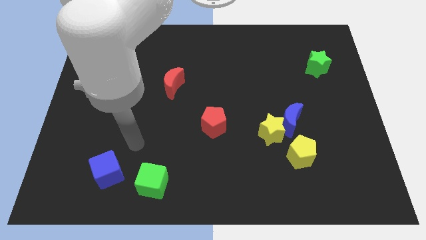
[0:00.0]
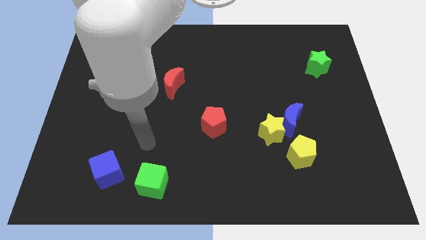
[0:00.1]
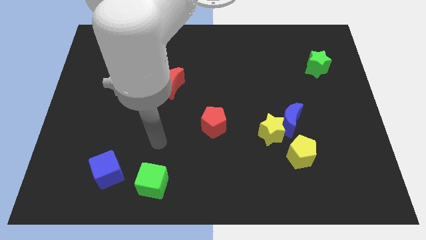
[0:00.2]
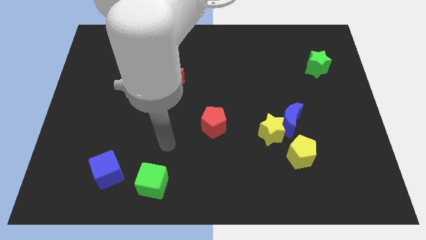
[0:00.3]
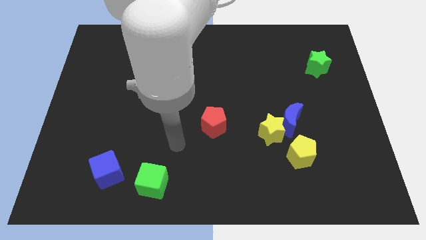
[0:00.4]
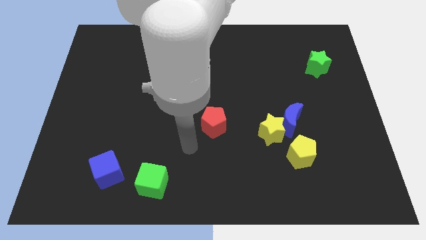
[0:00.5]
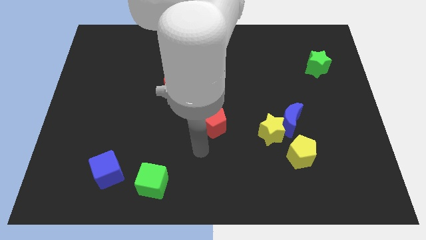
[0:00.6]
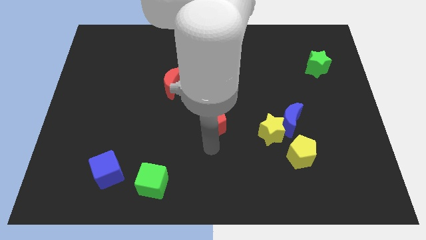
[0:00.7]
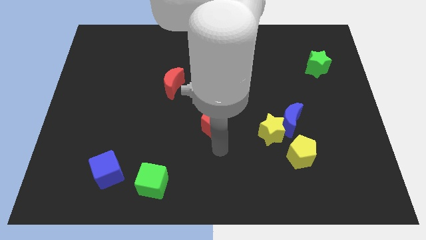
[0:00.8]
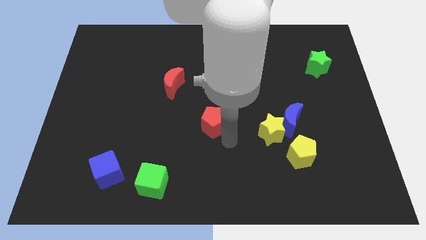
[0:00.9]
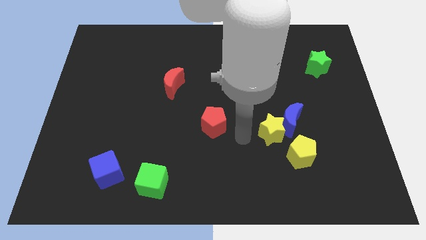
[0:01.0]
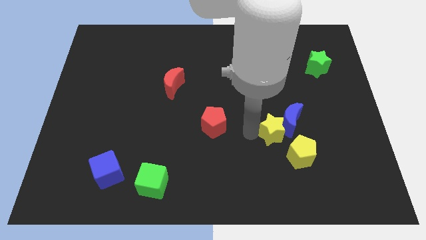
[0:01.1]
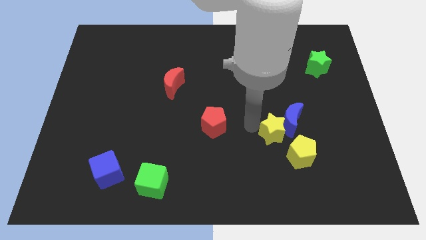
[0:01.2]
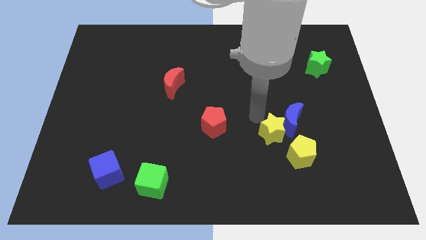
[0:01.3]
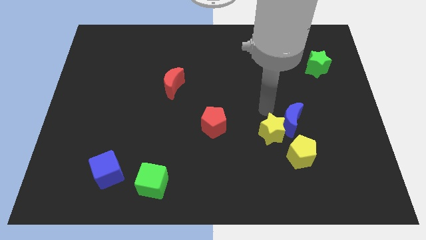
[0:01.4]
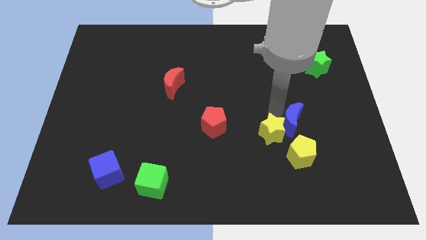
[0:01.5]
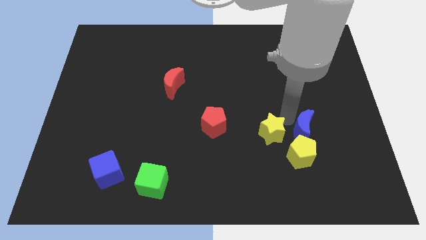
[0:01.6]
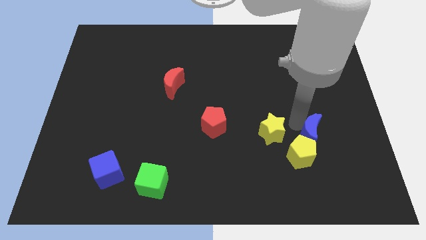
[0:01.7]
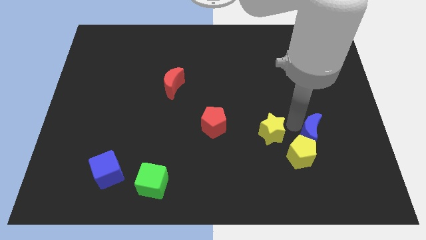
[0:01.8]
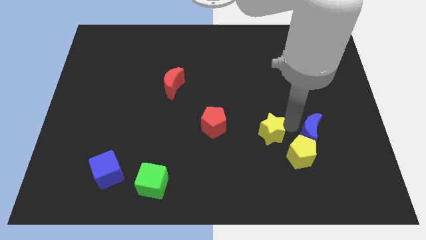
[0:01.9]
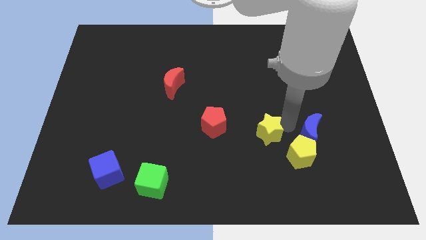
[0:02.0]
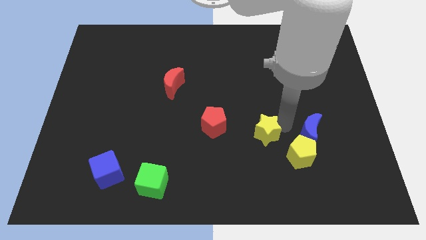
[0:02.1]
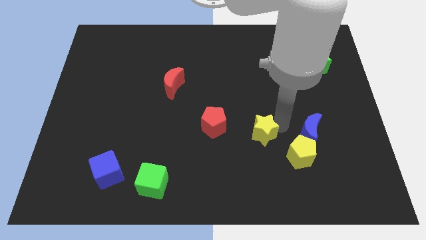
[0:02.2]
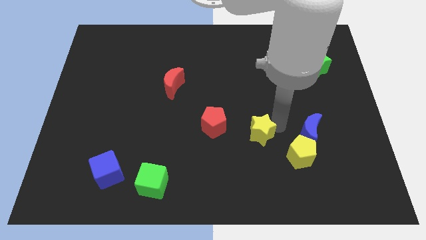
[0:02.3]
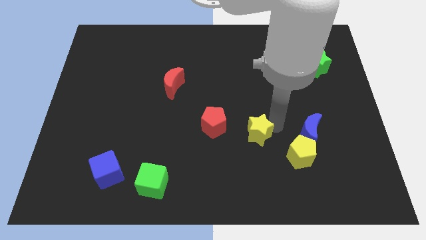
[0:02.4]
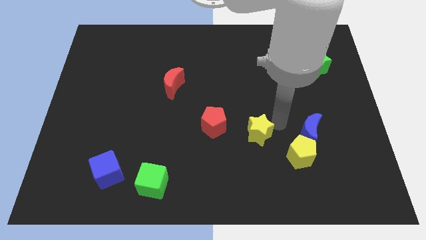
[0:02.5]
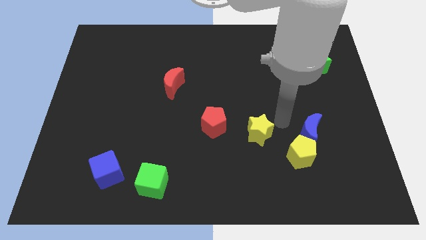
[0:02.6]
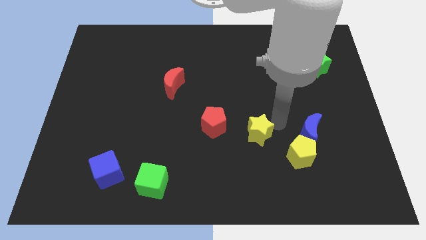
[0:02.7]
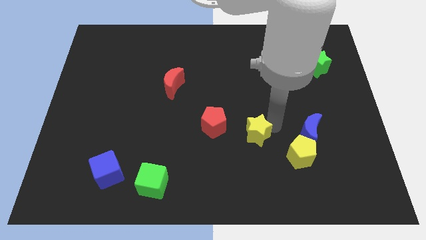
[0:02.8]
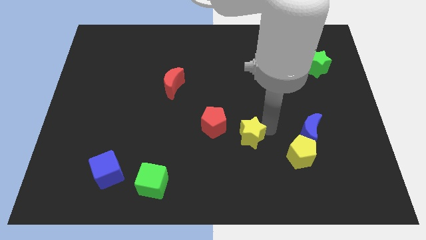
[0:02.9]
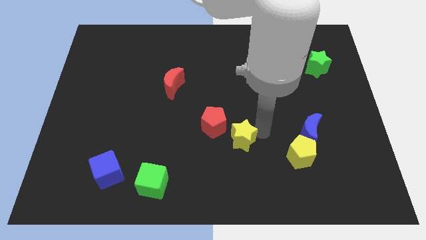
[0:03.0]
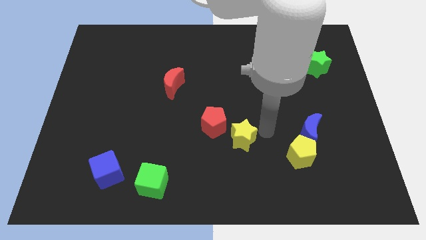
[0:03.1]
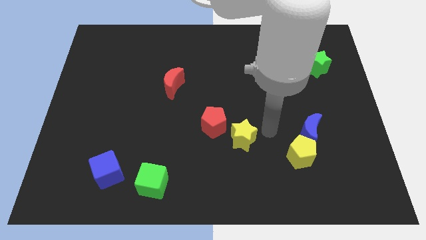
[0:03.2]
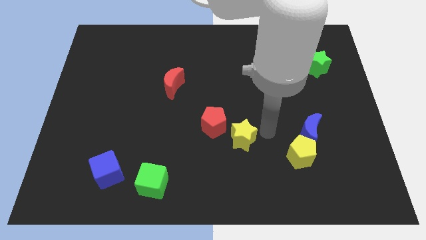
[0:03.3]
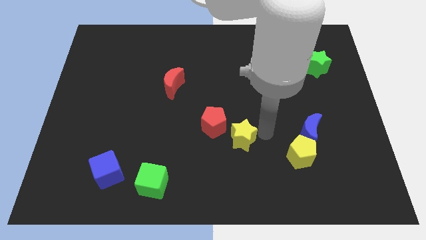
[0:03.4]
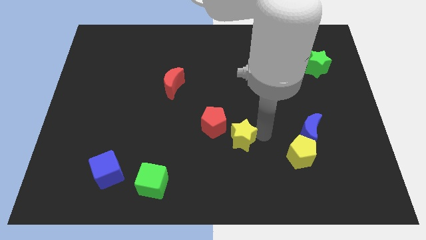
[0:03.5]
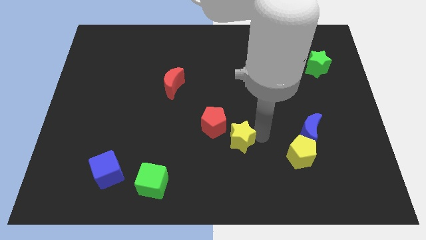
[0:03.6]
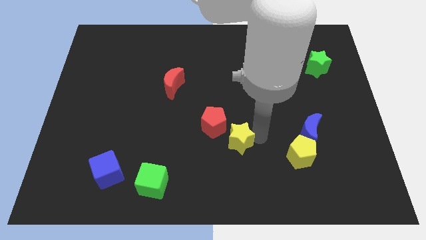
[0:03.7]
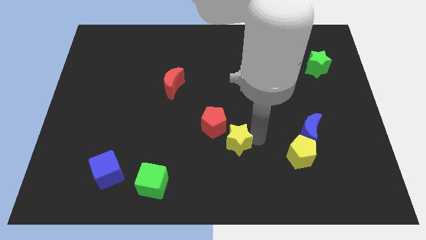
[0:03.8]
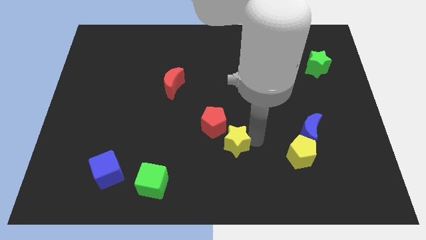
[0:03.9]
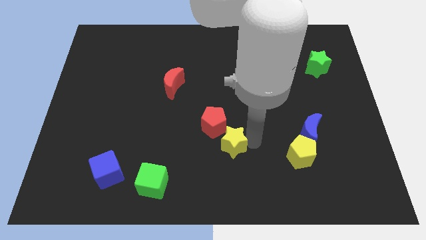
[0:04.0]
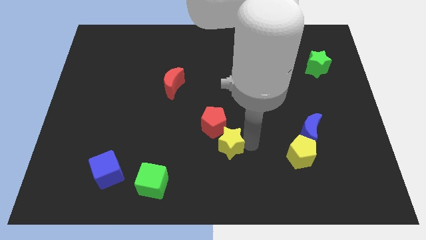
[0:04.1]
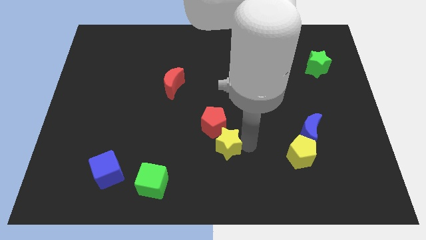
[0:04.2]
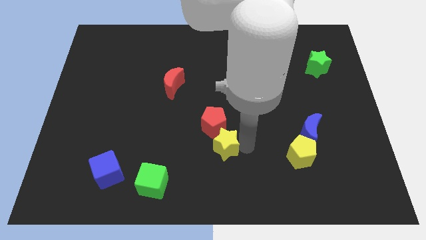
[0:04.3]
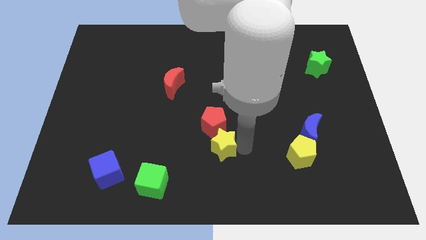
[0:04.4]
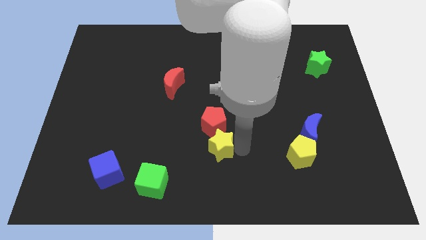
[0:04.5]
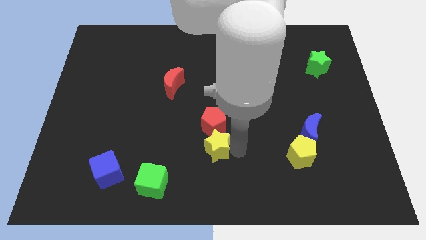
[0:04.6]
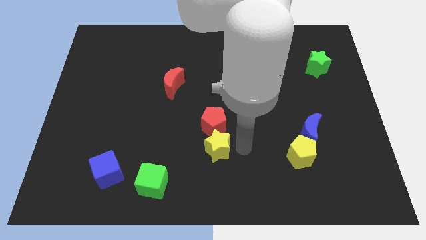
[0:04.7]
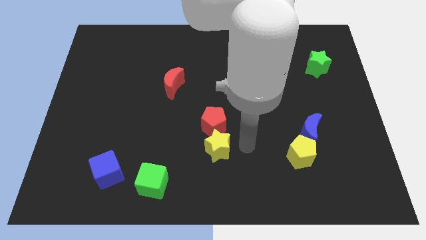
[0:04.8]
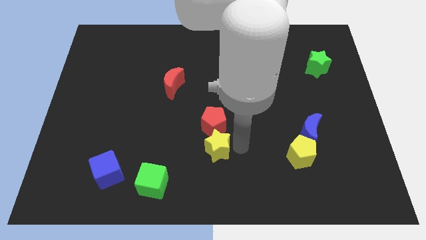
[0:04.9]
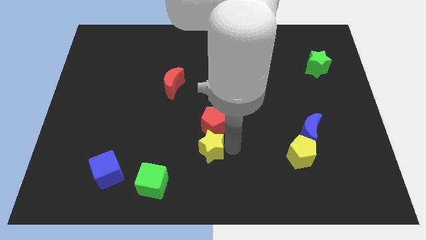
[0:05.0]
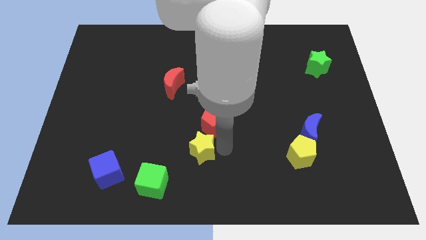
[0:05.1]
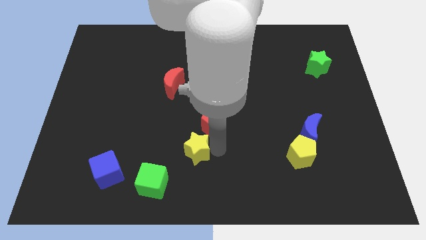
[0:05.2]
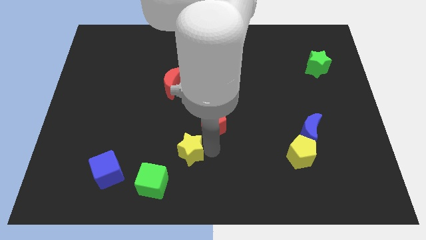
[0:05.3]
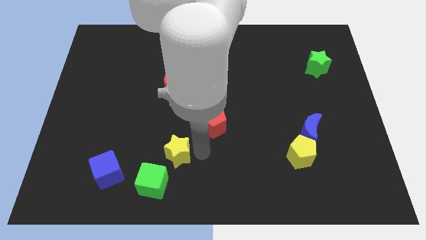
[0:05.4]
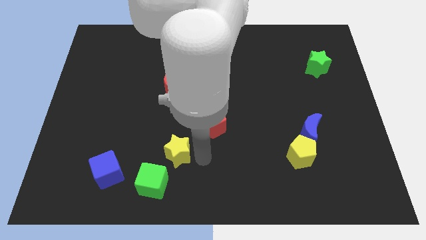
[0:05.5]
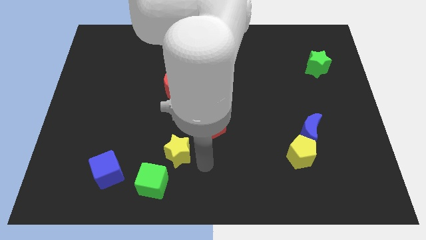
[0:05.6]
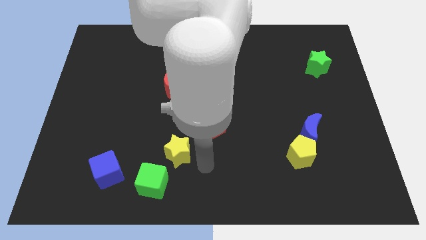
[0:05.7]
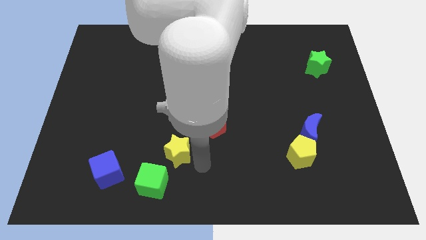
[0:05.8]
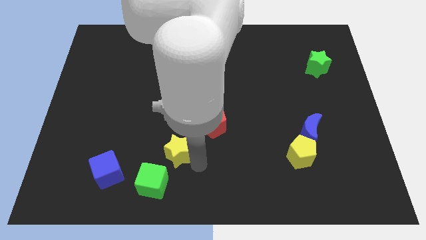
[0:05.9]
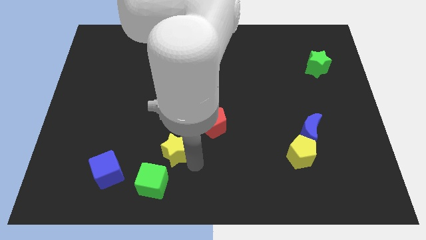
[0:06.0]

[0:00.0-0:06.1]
push the yellow star left

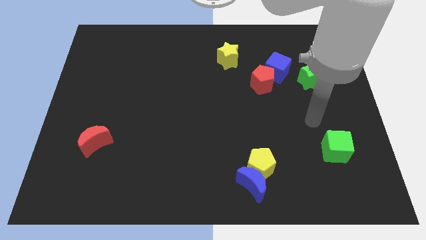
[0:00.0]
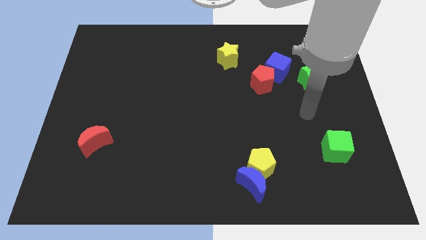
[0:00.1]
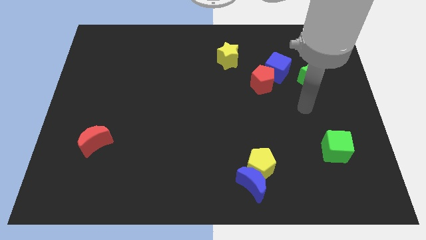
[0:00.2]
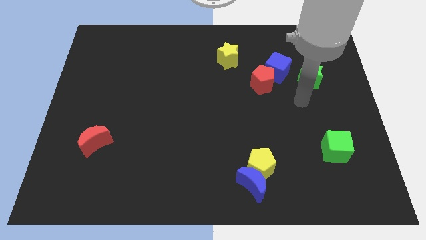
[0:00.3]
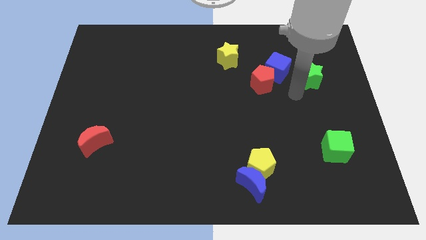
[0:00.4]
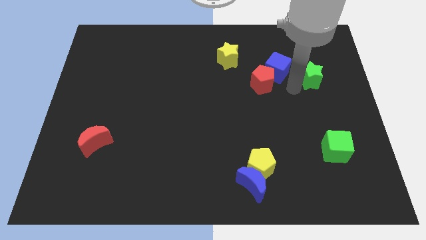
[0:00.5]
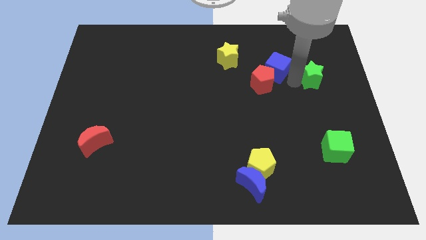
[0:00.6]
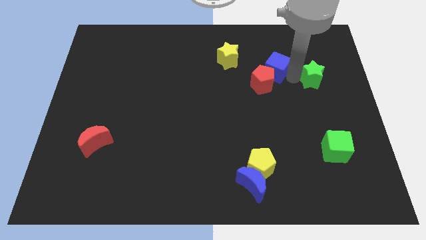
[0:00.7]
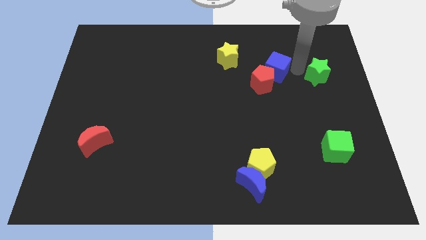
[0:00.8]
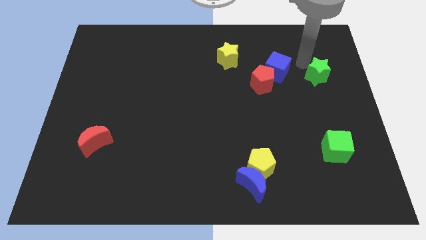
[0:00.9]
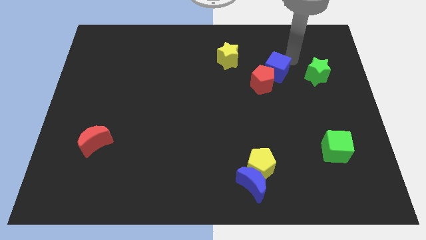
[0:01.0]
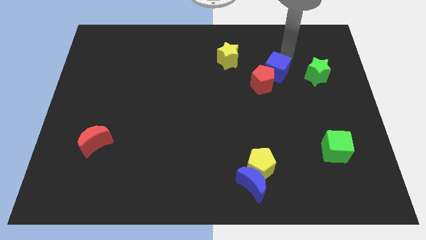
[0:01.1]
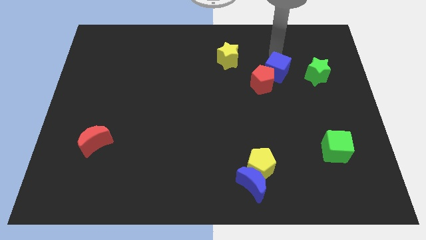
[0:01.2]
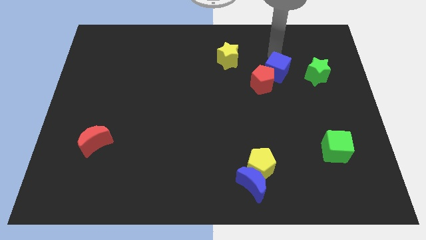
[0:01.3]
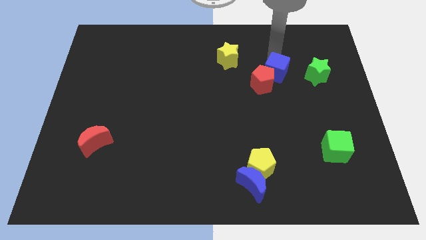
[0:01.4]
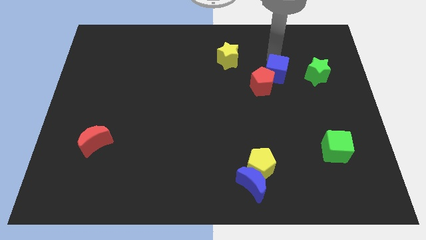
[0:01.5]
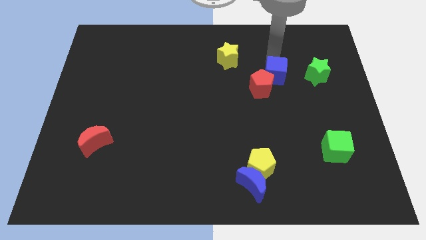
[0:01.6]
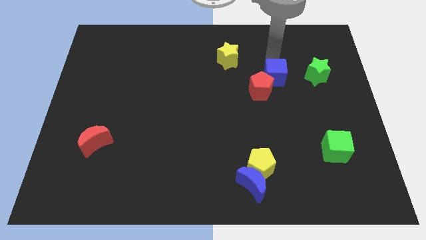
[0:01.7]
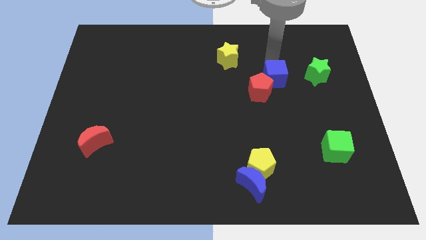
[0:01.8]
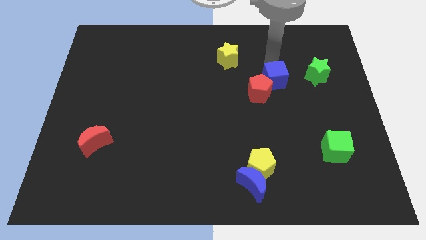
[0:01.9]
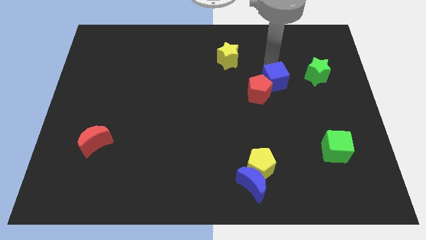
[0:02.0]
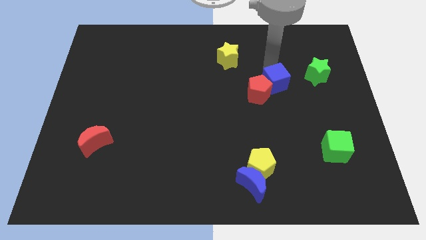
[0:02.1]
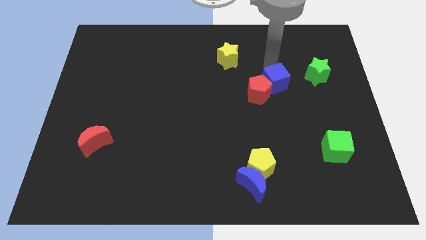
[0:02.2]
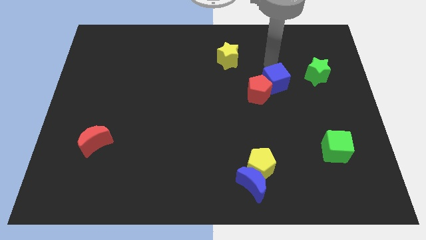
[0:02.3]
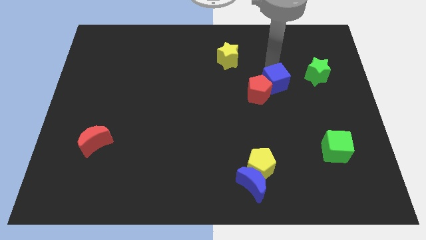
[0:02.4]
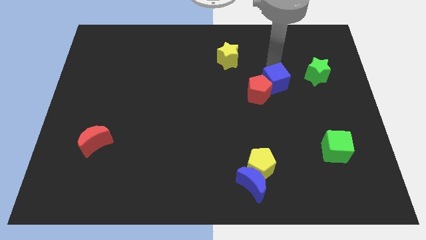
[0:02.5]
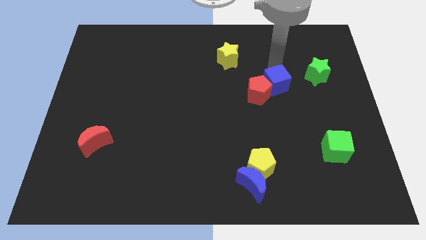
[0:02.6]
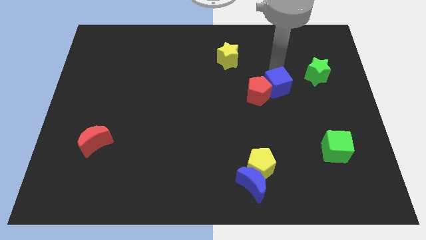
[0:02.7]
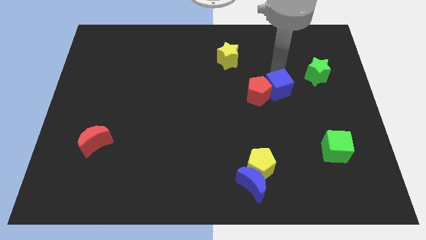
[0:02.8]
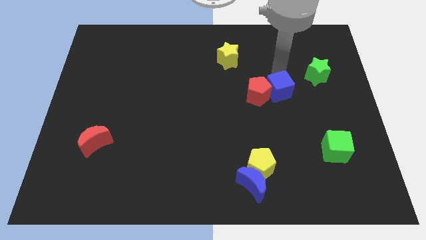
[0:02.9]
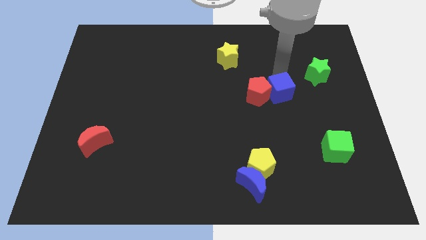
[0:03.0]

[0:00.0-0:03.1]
push the blue cube down a little
